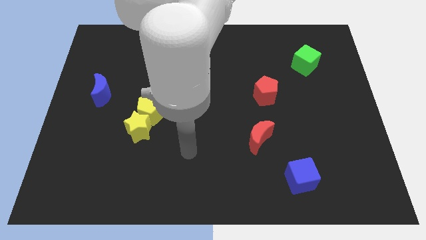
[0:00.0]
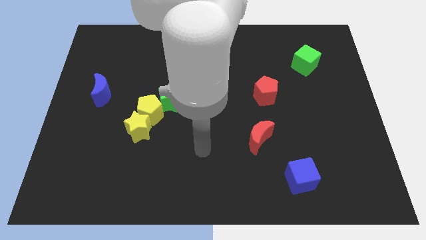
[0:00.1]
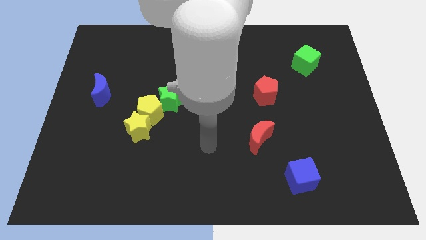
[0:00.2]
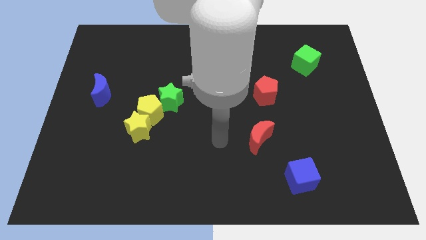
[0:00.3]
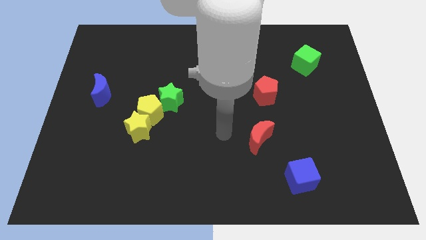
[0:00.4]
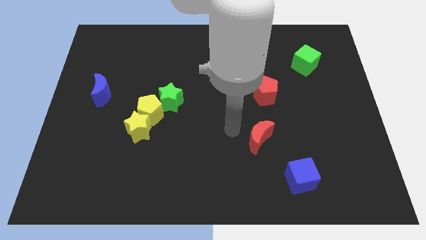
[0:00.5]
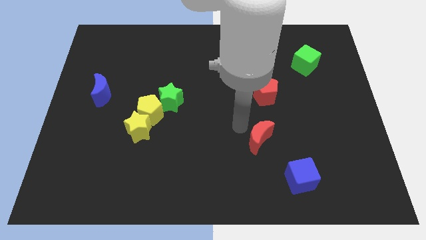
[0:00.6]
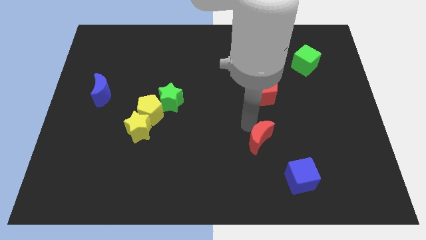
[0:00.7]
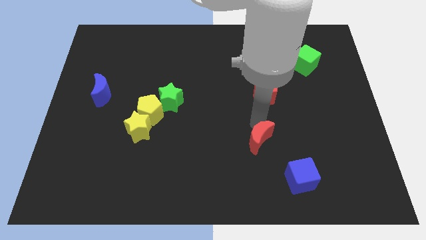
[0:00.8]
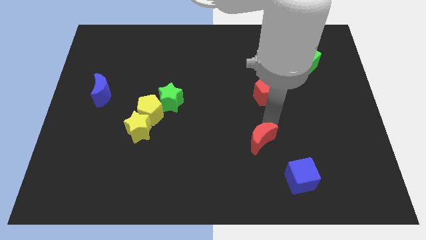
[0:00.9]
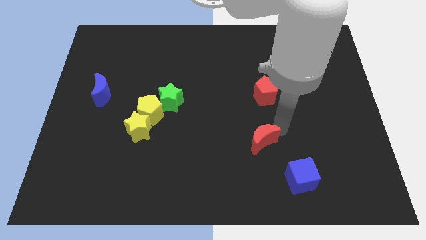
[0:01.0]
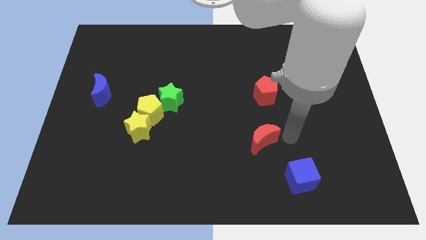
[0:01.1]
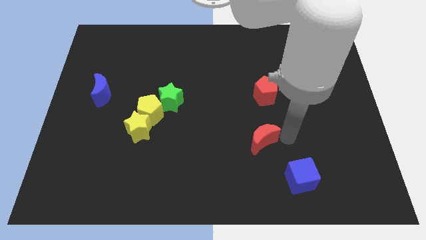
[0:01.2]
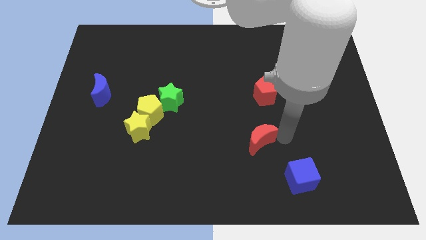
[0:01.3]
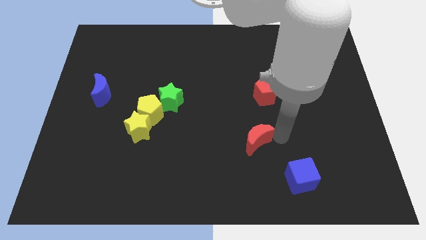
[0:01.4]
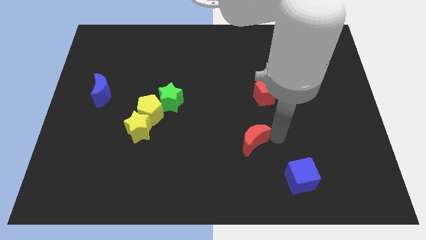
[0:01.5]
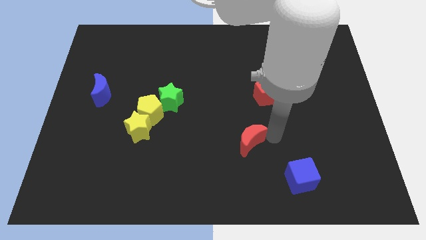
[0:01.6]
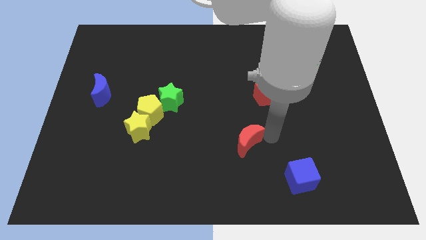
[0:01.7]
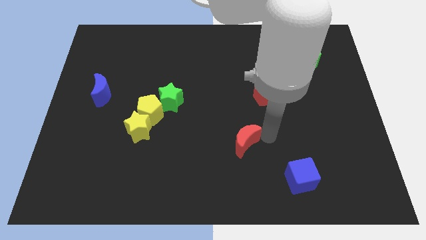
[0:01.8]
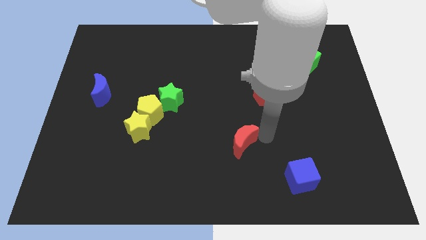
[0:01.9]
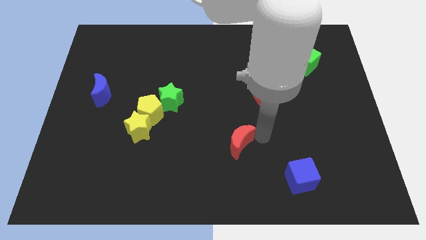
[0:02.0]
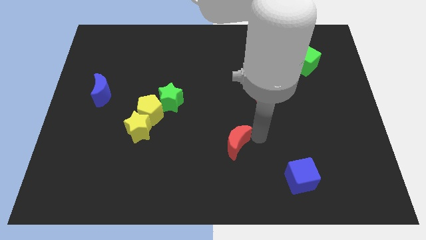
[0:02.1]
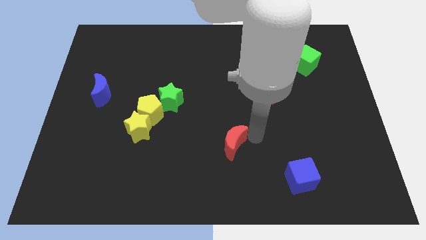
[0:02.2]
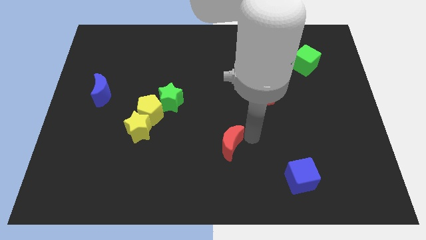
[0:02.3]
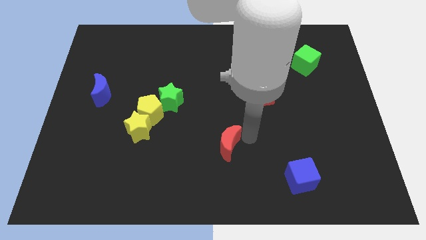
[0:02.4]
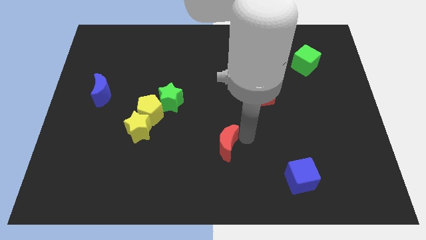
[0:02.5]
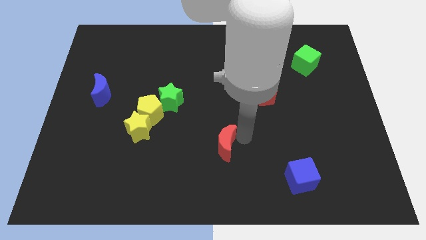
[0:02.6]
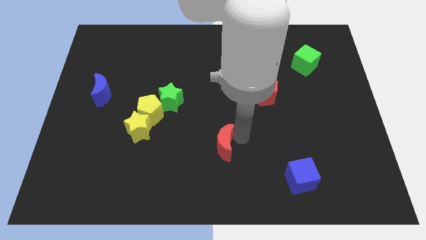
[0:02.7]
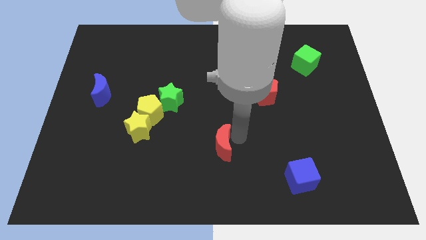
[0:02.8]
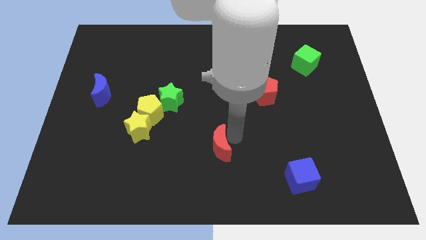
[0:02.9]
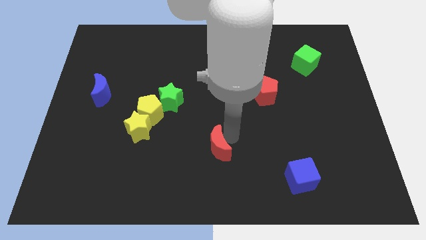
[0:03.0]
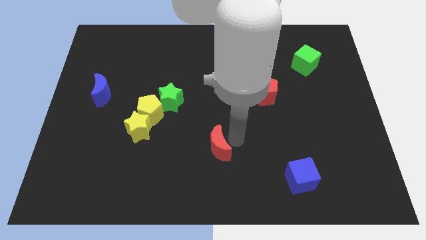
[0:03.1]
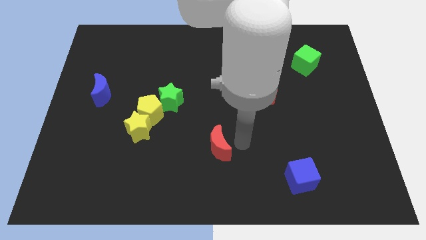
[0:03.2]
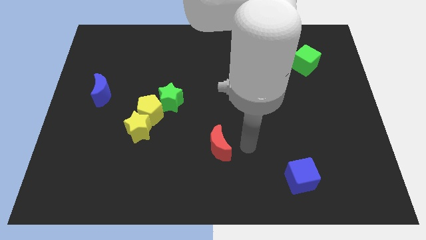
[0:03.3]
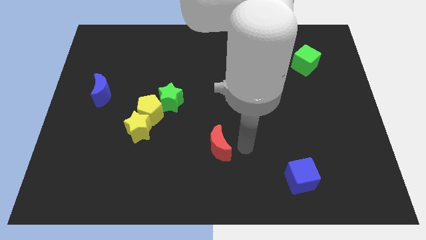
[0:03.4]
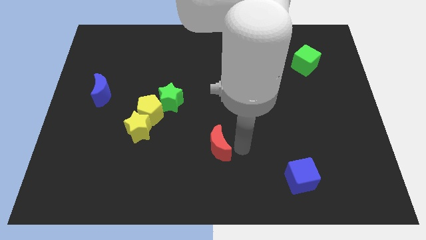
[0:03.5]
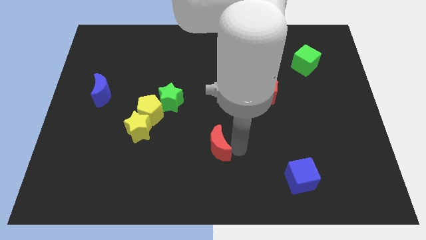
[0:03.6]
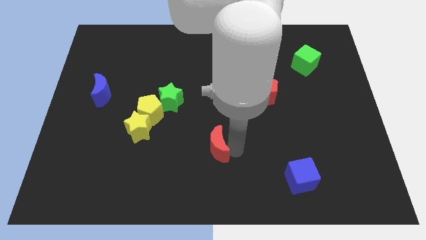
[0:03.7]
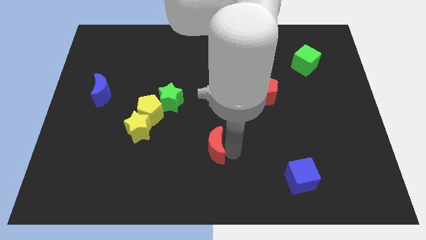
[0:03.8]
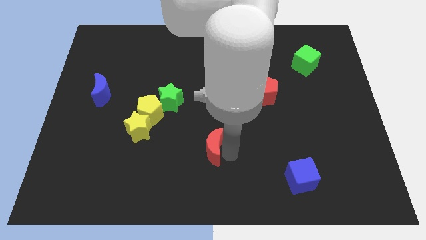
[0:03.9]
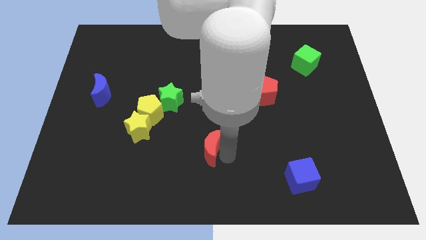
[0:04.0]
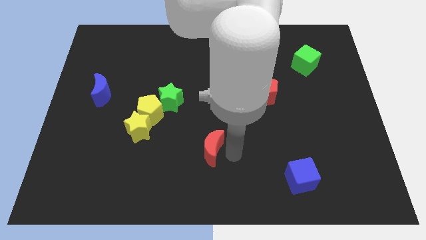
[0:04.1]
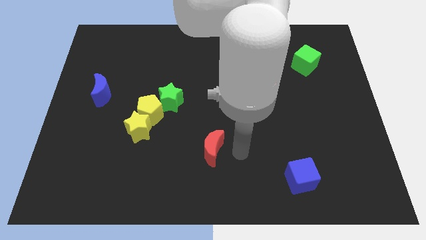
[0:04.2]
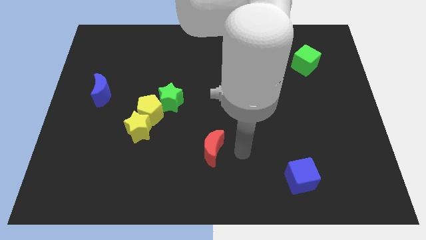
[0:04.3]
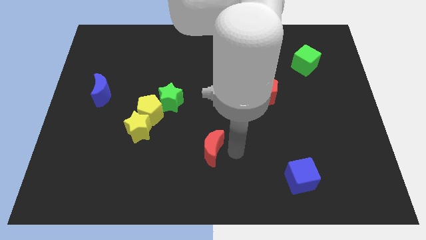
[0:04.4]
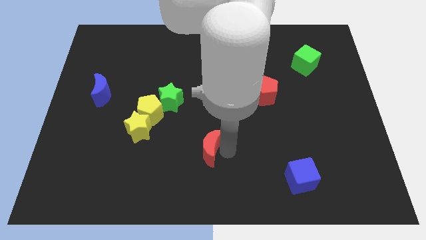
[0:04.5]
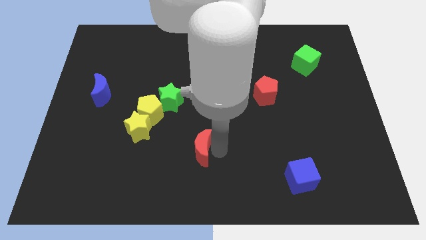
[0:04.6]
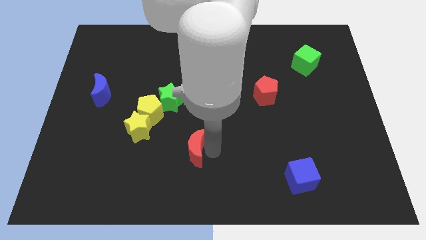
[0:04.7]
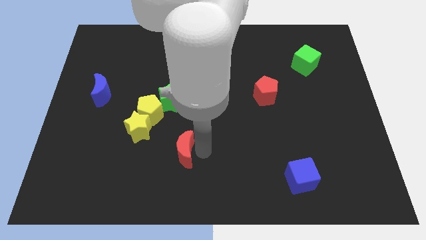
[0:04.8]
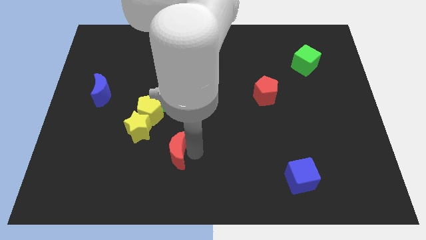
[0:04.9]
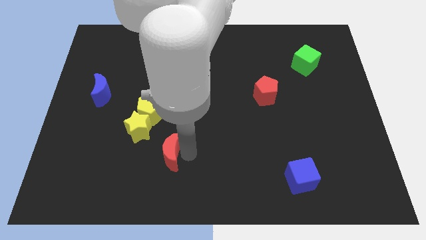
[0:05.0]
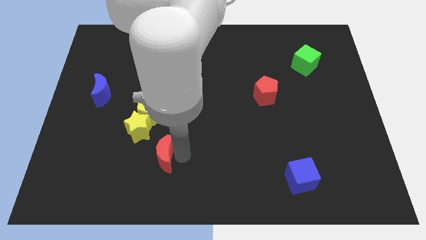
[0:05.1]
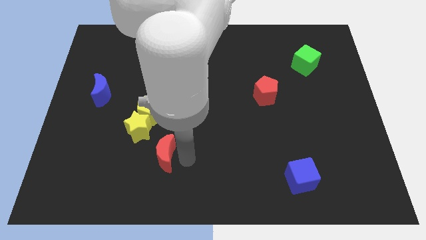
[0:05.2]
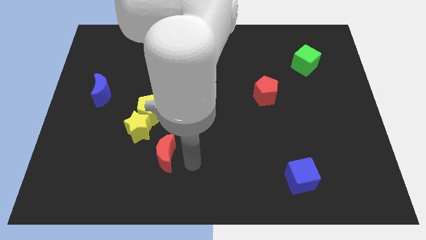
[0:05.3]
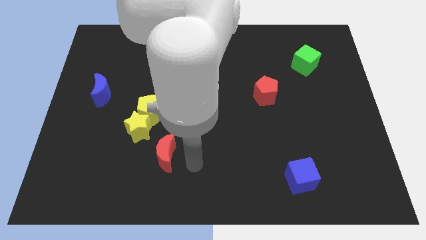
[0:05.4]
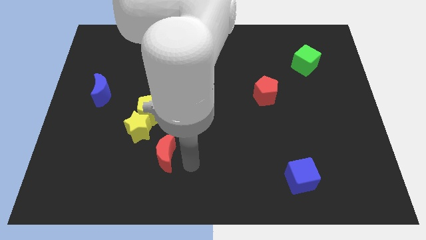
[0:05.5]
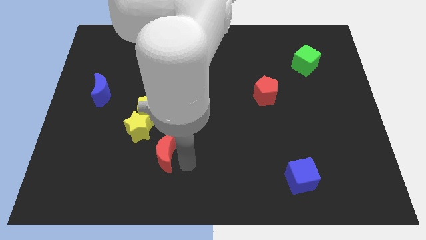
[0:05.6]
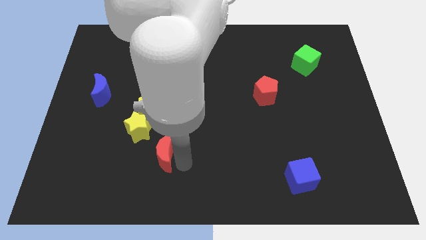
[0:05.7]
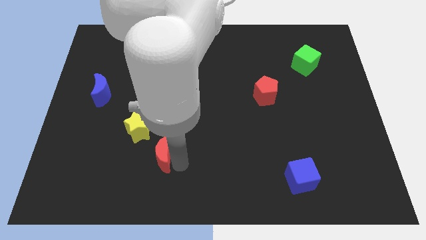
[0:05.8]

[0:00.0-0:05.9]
push the red moon left

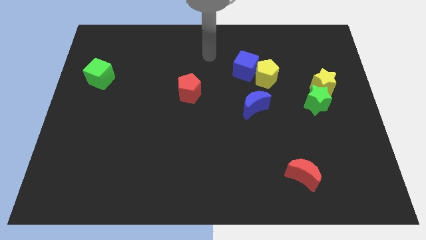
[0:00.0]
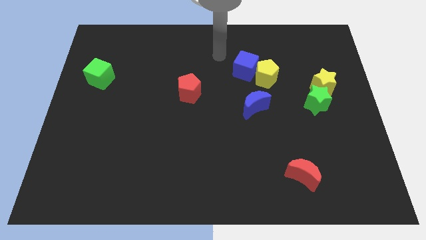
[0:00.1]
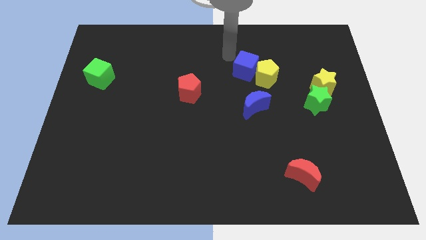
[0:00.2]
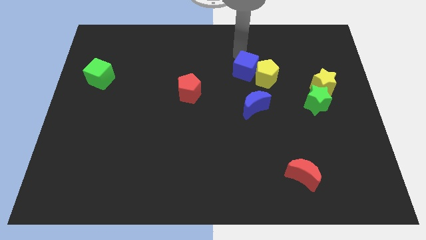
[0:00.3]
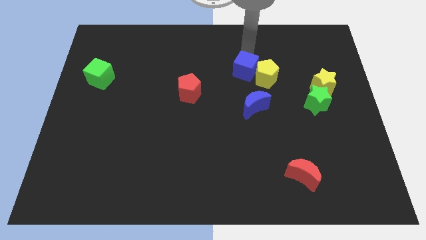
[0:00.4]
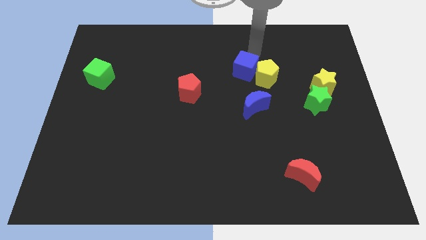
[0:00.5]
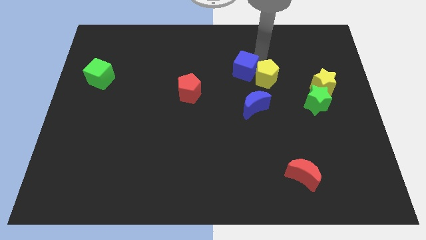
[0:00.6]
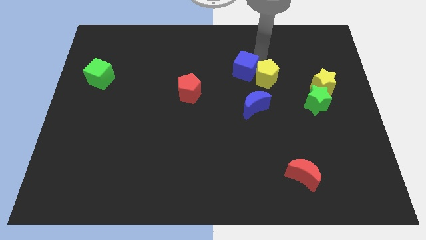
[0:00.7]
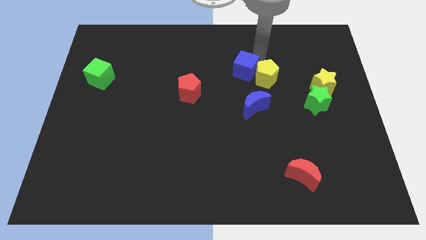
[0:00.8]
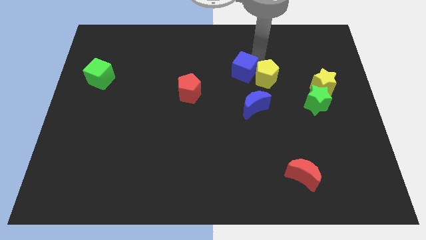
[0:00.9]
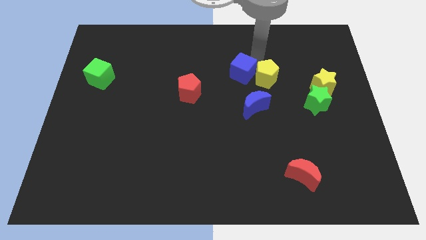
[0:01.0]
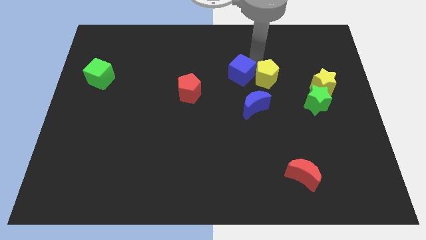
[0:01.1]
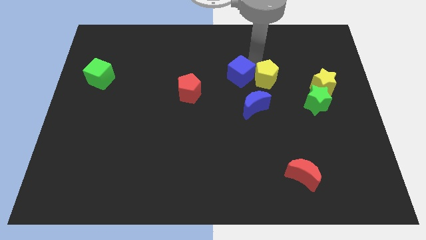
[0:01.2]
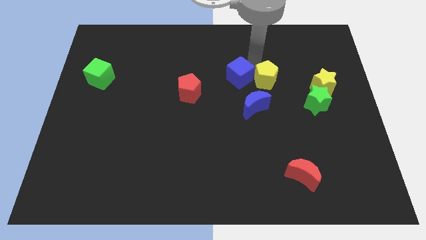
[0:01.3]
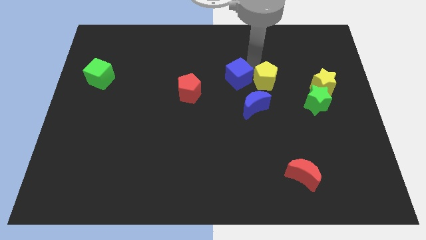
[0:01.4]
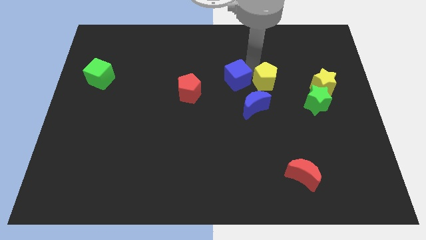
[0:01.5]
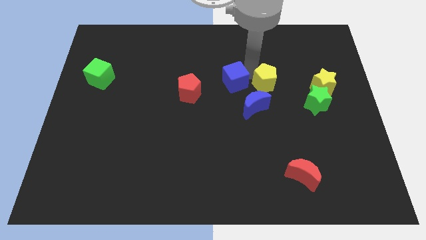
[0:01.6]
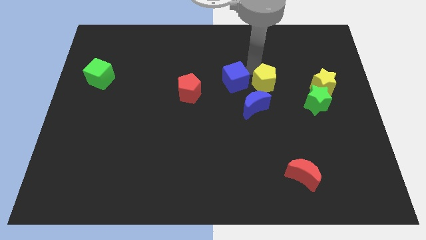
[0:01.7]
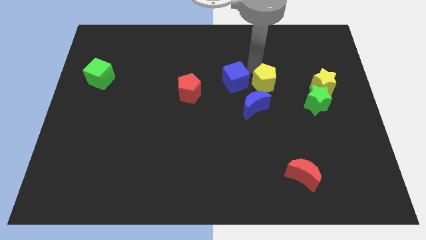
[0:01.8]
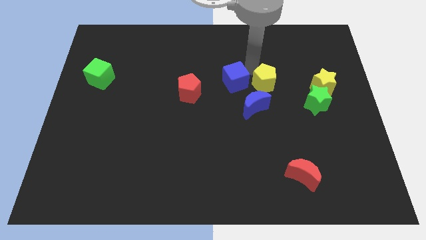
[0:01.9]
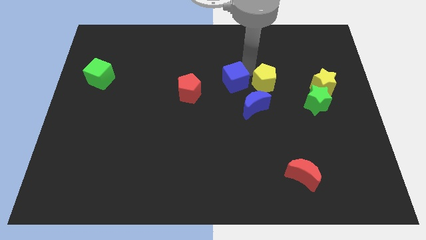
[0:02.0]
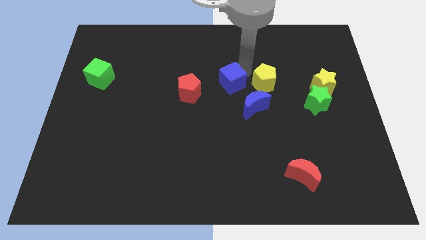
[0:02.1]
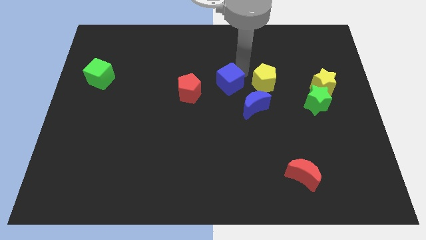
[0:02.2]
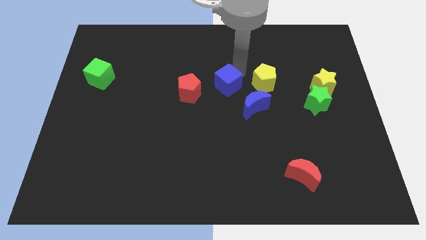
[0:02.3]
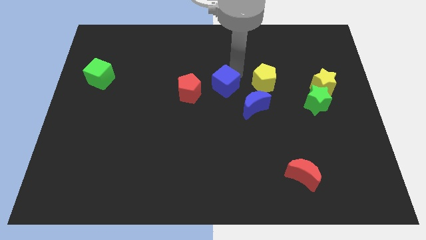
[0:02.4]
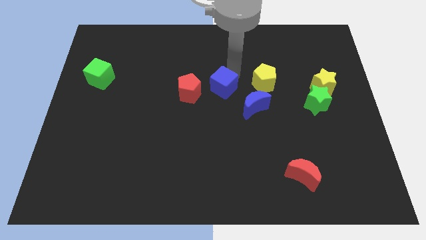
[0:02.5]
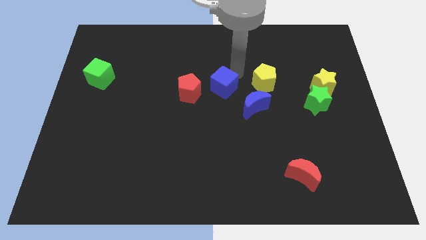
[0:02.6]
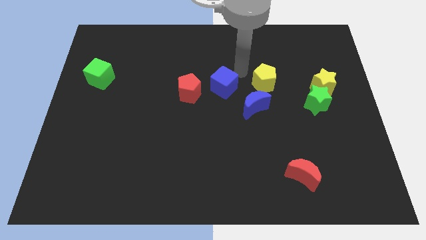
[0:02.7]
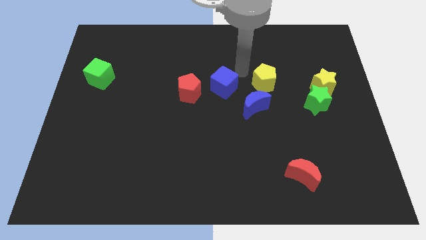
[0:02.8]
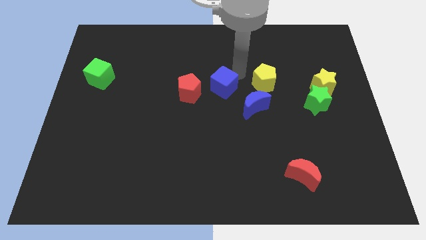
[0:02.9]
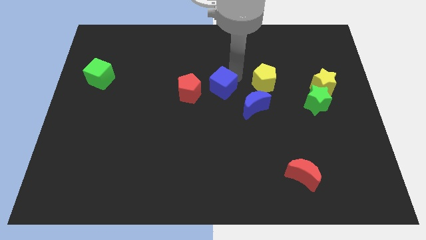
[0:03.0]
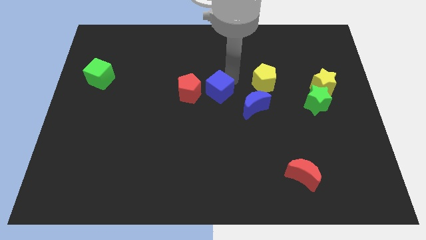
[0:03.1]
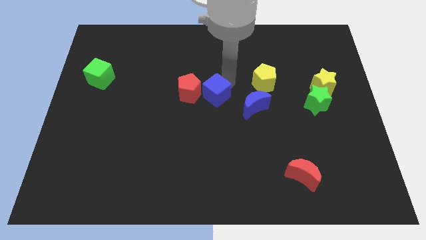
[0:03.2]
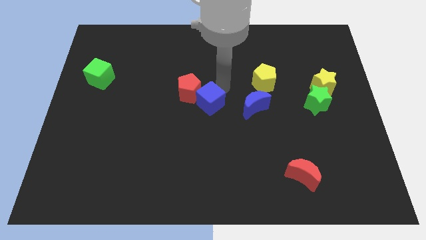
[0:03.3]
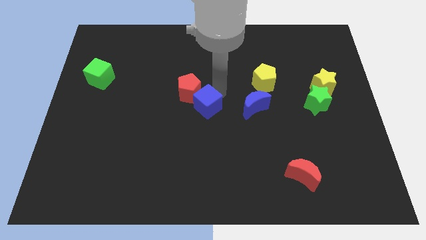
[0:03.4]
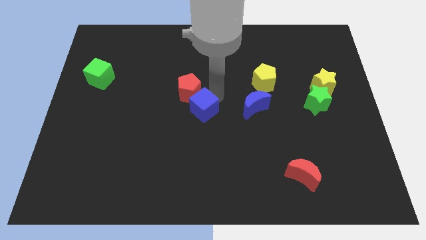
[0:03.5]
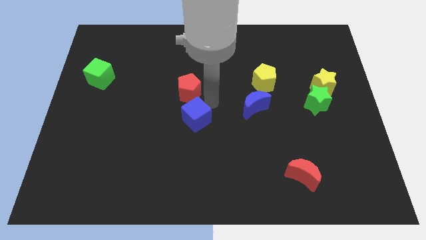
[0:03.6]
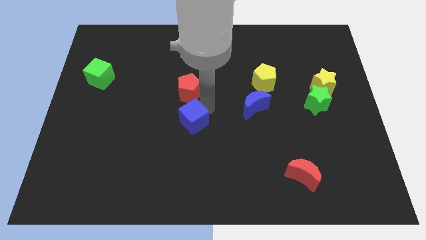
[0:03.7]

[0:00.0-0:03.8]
move the blue cube down and left diagonally
